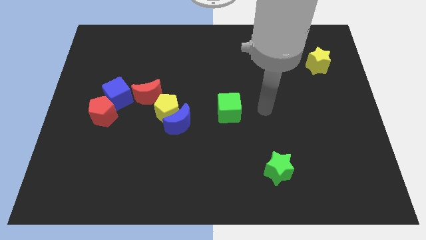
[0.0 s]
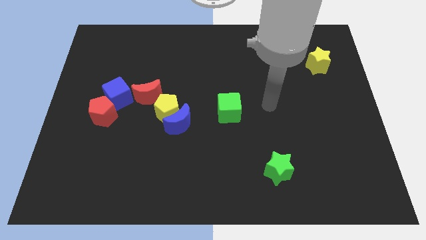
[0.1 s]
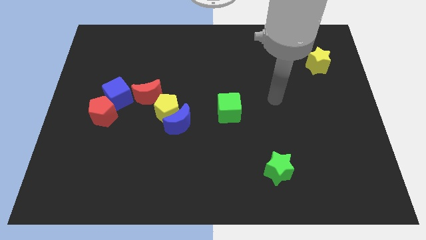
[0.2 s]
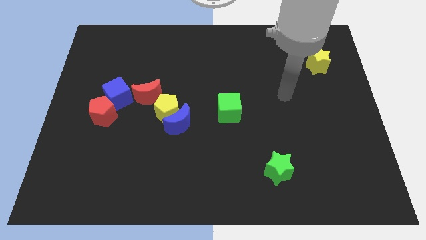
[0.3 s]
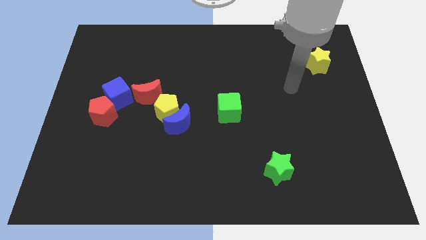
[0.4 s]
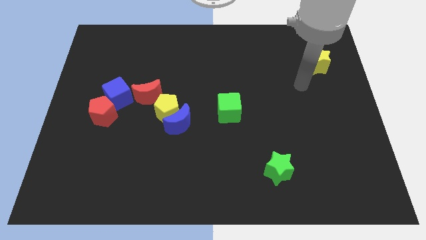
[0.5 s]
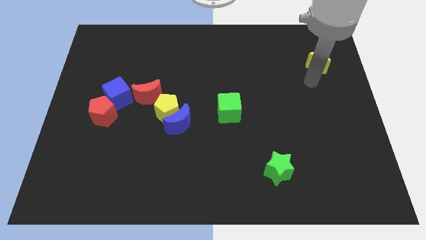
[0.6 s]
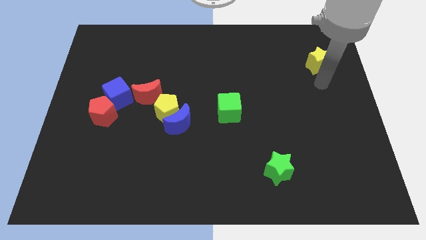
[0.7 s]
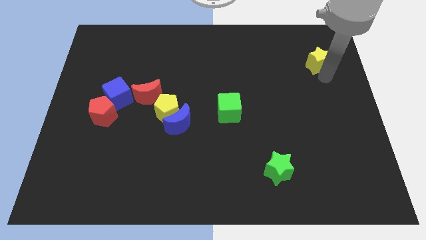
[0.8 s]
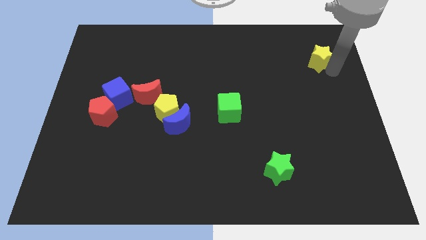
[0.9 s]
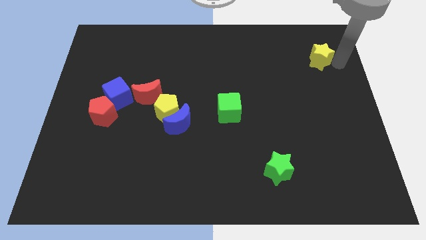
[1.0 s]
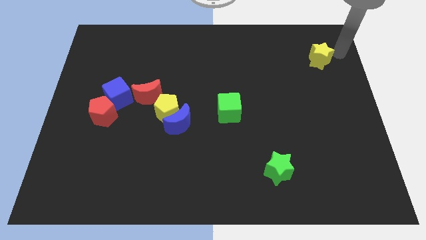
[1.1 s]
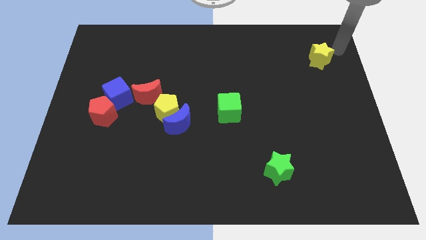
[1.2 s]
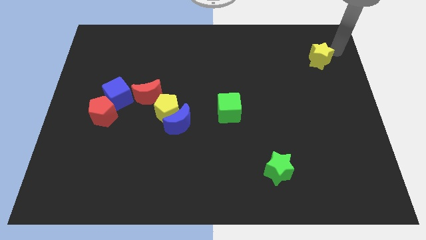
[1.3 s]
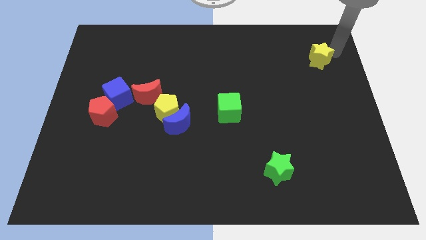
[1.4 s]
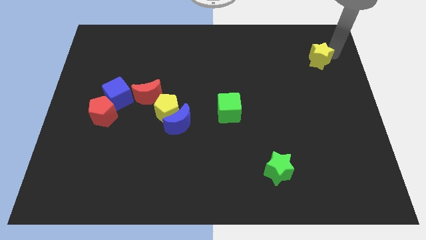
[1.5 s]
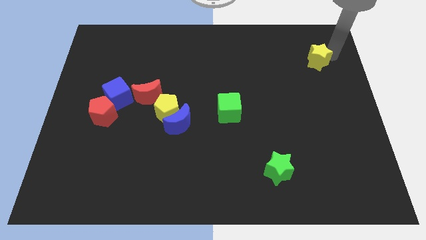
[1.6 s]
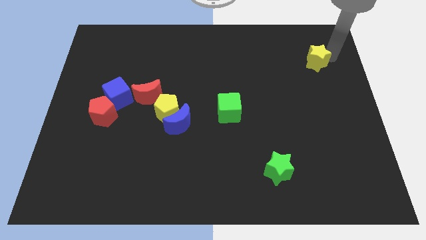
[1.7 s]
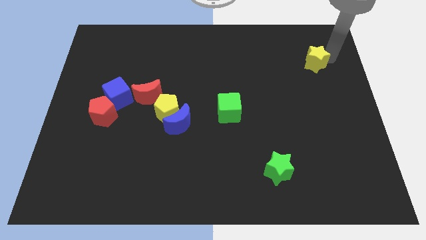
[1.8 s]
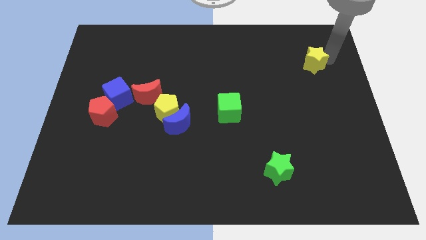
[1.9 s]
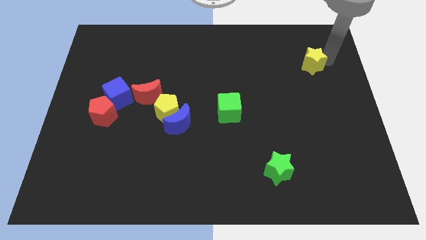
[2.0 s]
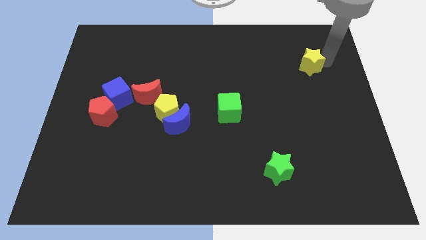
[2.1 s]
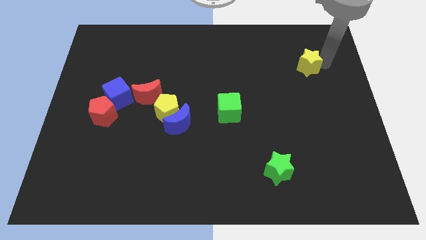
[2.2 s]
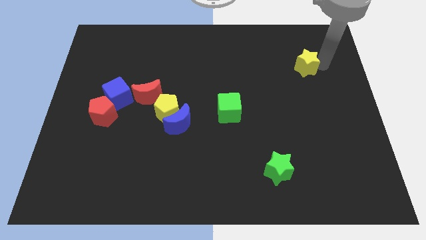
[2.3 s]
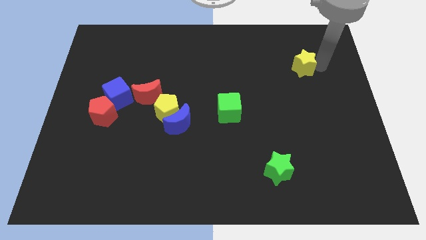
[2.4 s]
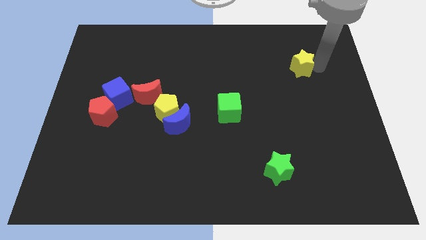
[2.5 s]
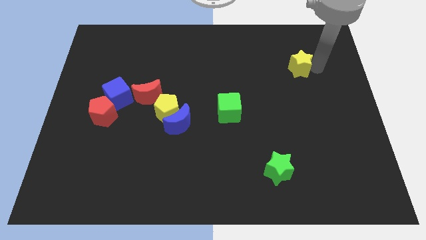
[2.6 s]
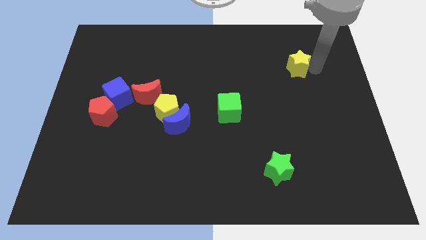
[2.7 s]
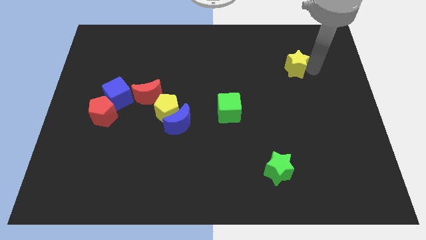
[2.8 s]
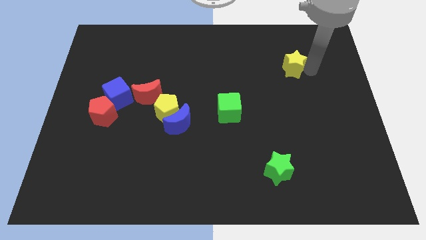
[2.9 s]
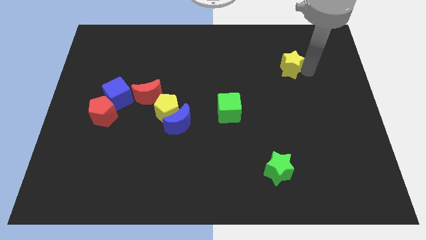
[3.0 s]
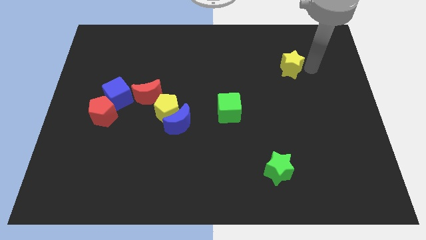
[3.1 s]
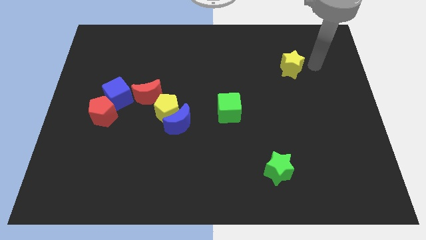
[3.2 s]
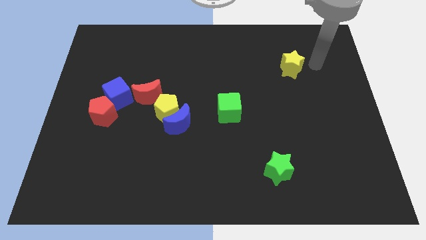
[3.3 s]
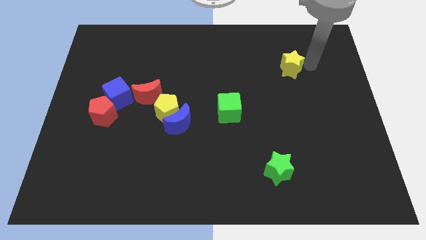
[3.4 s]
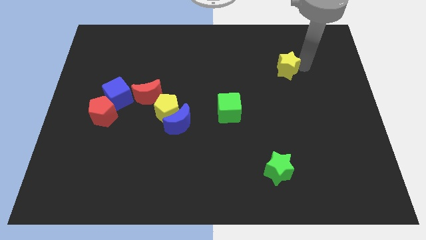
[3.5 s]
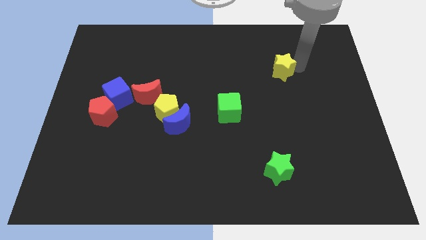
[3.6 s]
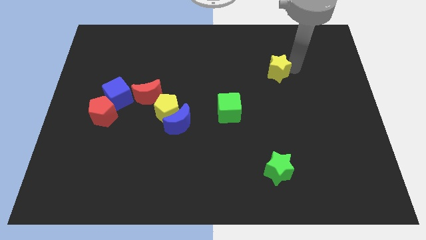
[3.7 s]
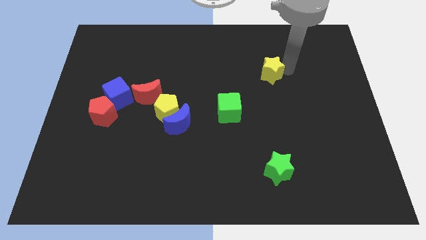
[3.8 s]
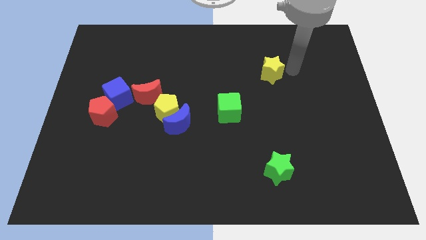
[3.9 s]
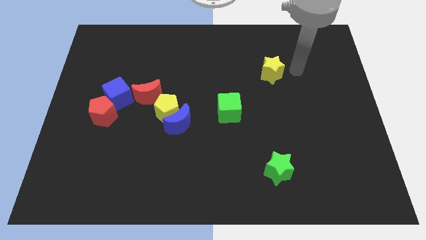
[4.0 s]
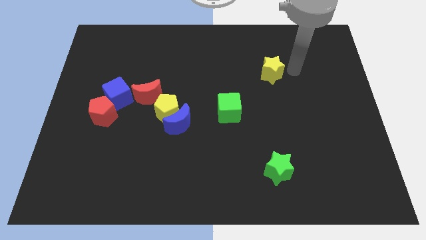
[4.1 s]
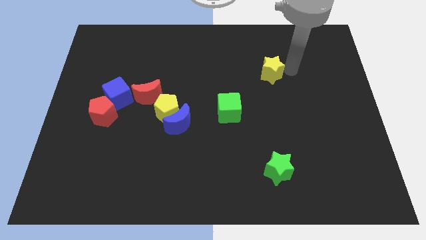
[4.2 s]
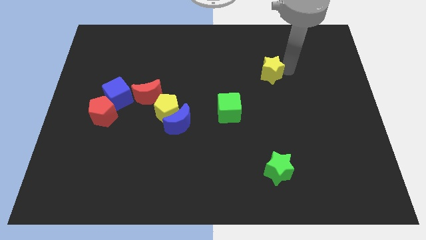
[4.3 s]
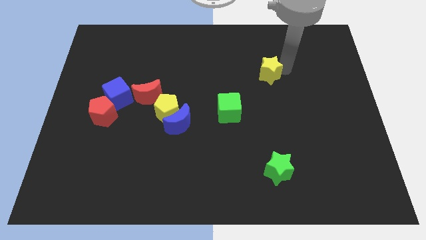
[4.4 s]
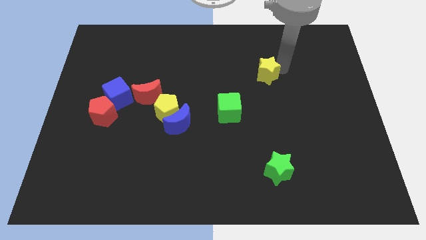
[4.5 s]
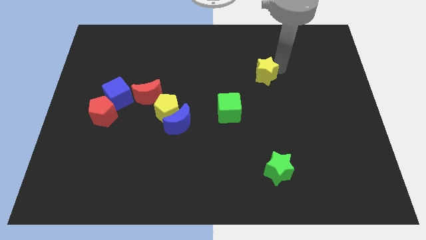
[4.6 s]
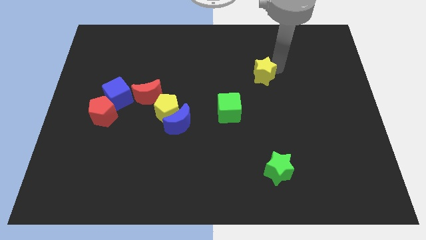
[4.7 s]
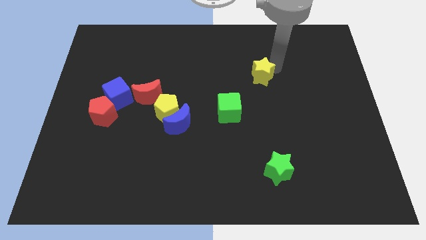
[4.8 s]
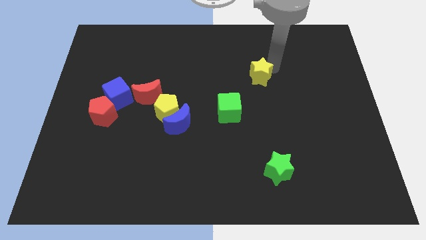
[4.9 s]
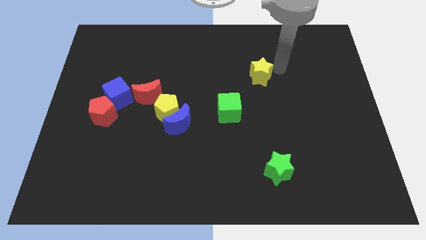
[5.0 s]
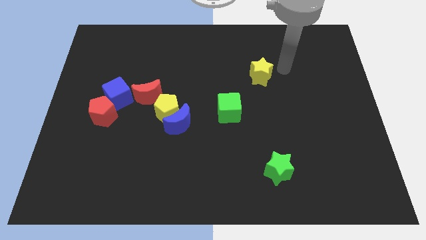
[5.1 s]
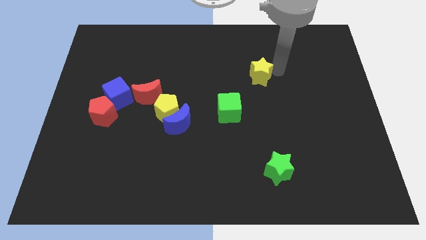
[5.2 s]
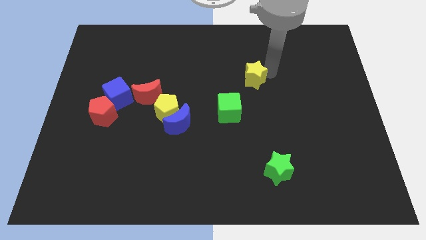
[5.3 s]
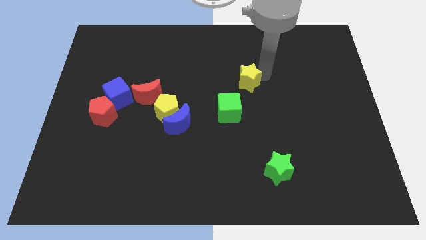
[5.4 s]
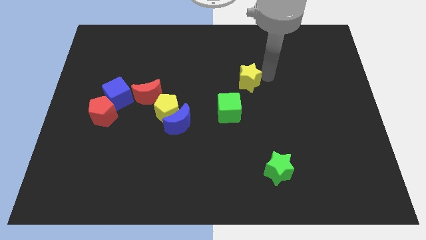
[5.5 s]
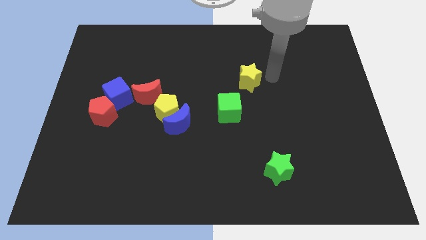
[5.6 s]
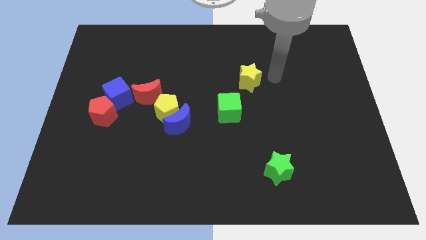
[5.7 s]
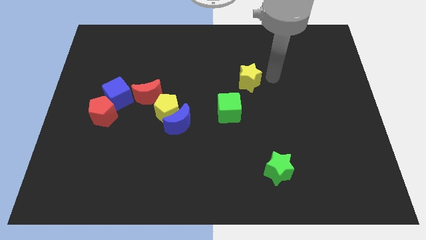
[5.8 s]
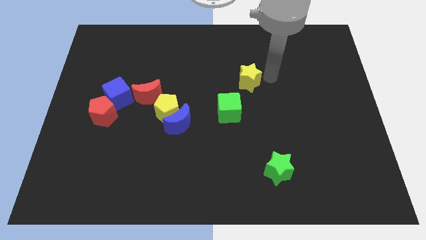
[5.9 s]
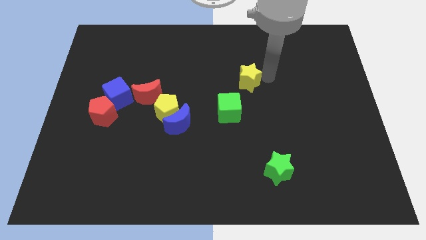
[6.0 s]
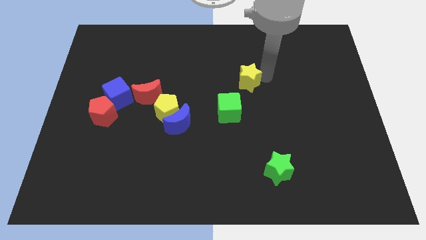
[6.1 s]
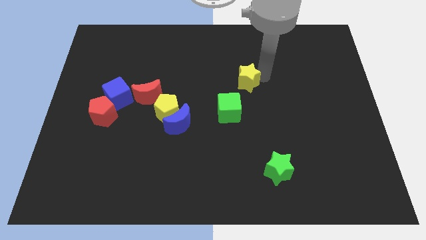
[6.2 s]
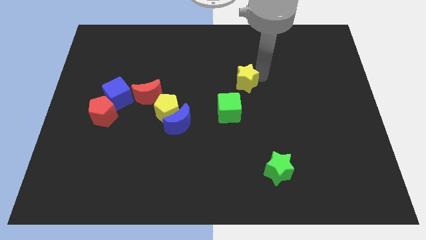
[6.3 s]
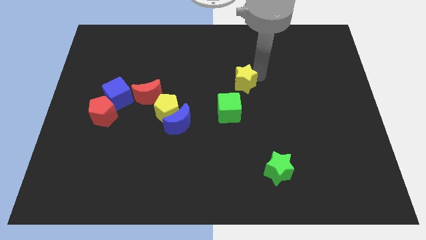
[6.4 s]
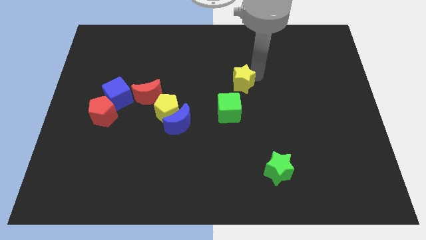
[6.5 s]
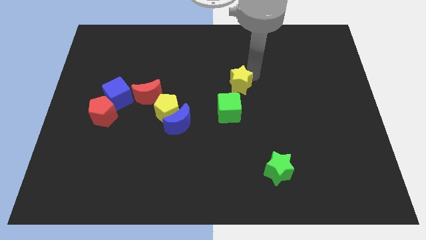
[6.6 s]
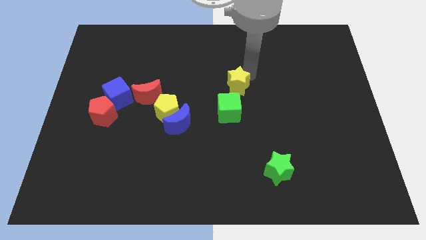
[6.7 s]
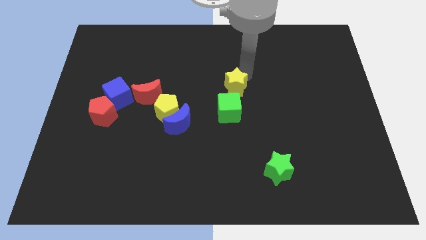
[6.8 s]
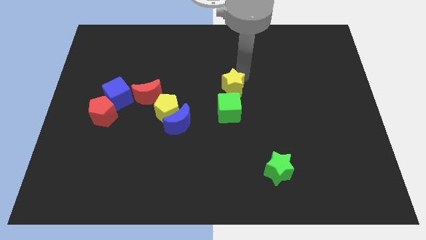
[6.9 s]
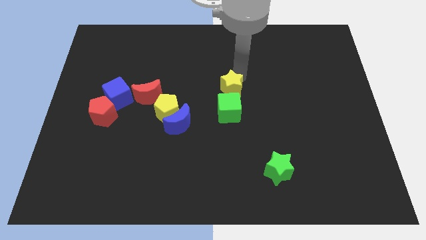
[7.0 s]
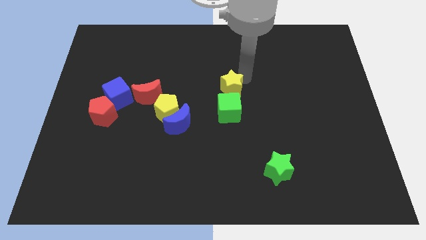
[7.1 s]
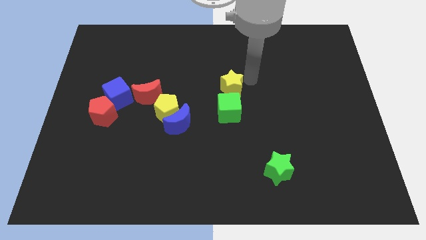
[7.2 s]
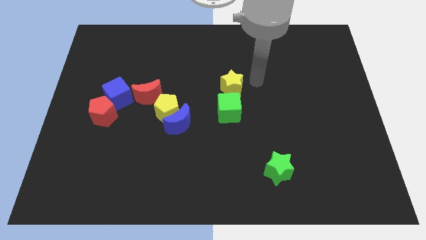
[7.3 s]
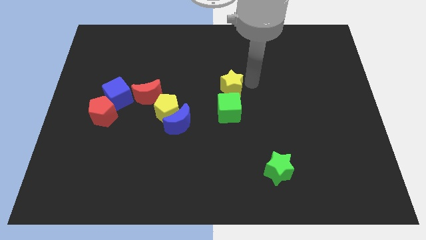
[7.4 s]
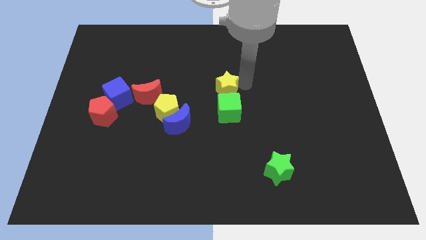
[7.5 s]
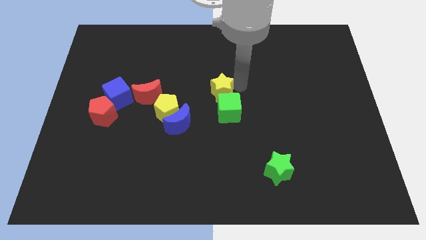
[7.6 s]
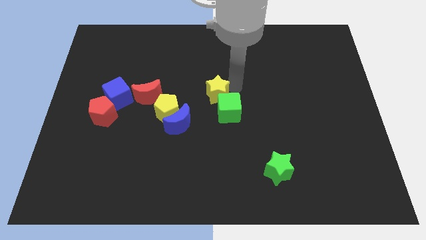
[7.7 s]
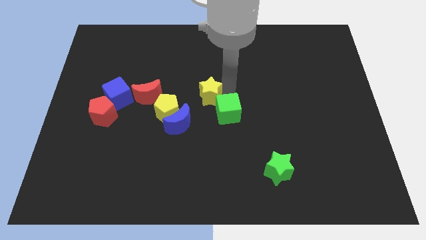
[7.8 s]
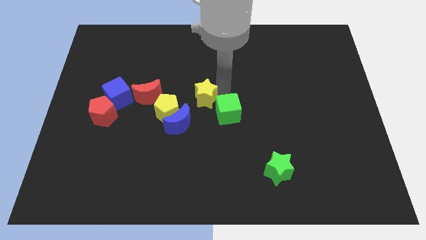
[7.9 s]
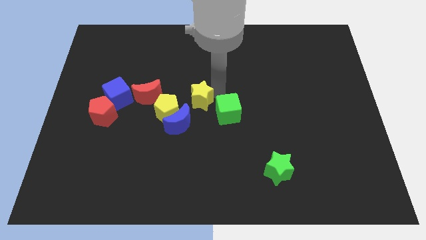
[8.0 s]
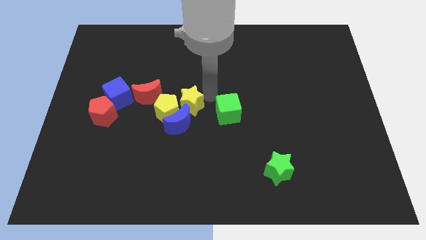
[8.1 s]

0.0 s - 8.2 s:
move the yellow star towards the yellow pentagon
